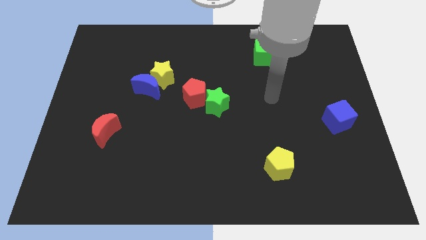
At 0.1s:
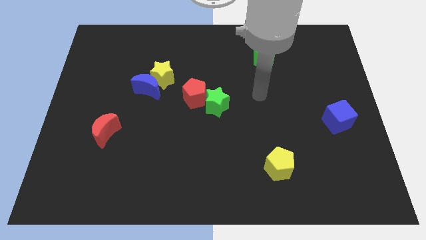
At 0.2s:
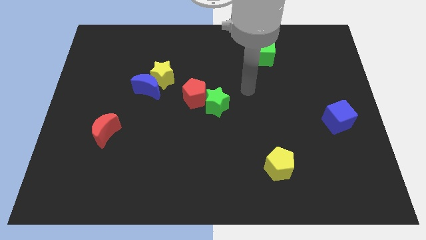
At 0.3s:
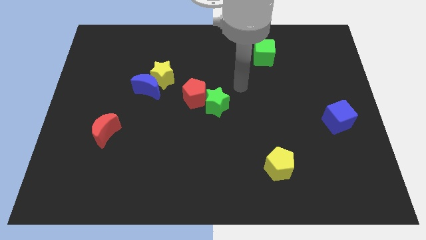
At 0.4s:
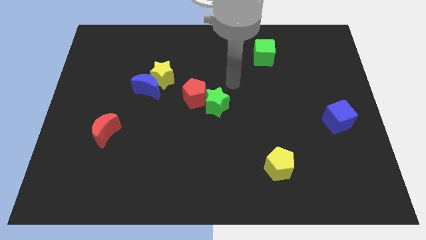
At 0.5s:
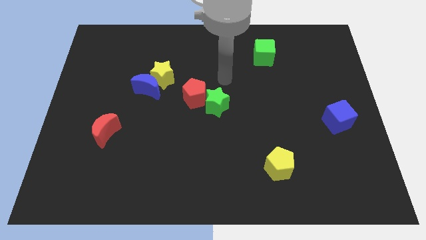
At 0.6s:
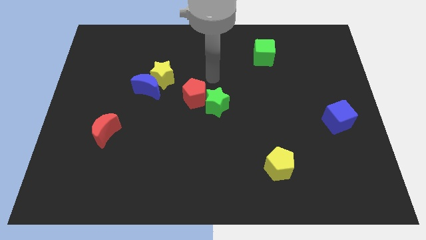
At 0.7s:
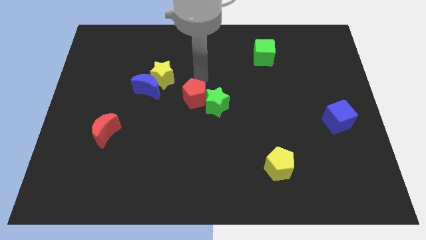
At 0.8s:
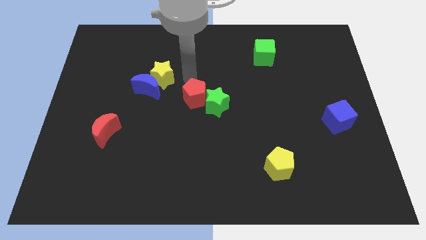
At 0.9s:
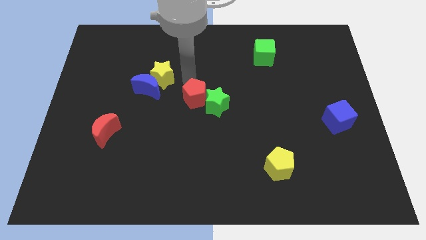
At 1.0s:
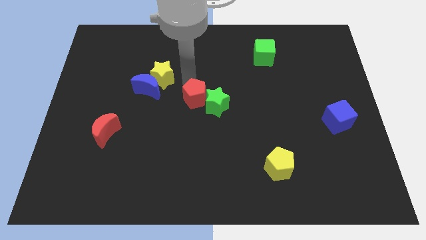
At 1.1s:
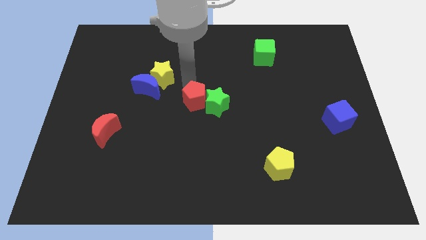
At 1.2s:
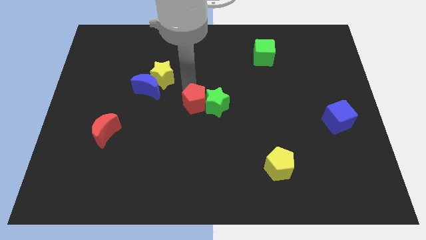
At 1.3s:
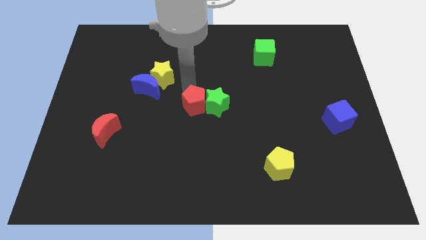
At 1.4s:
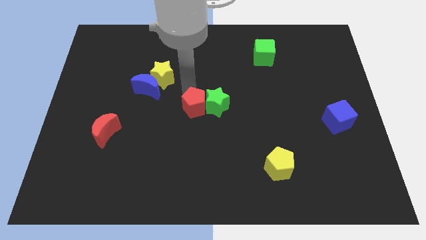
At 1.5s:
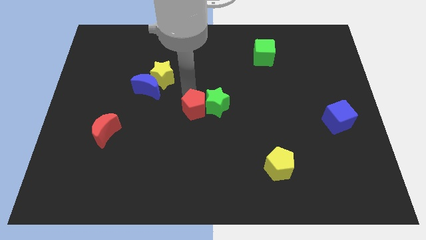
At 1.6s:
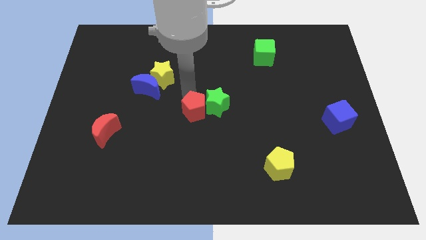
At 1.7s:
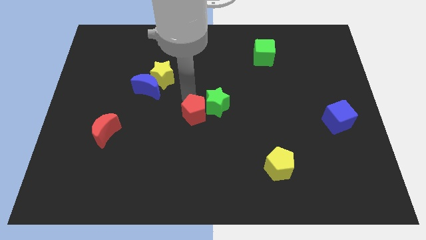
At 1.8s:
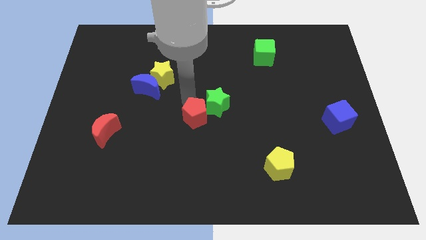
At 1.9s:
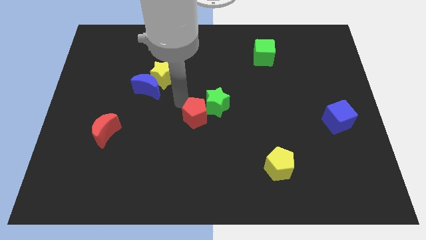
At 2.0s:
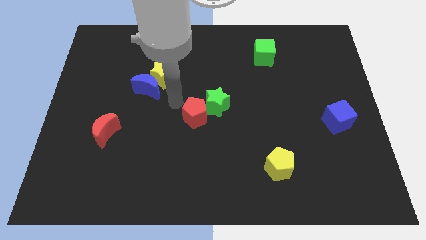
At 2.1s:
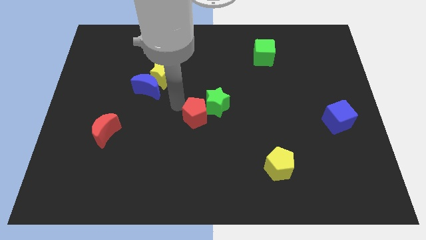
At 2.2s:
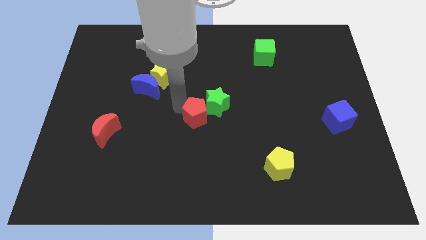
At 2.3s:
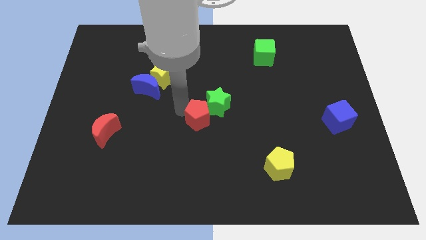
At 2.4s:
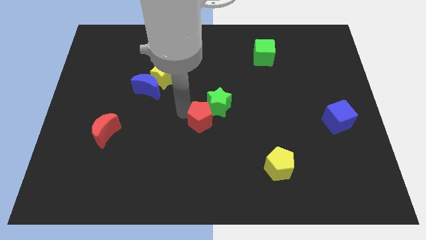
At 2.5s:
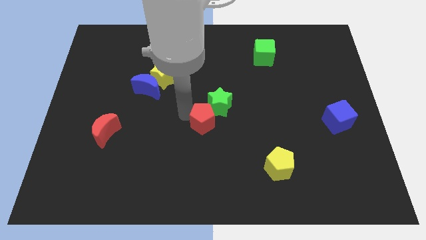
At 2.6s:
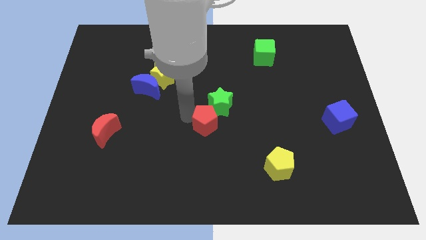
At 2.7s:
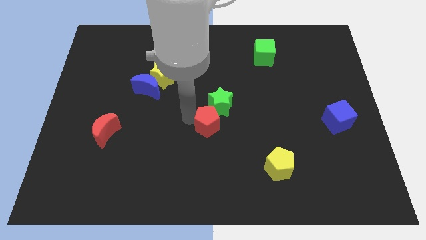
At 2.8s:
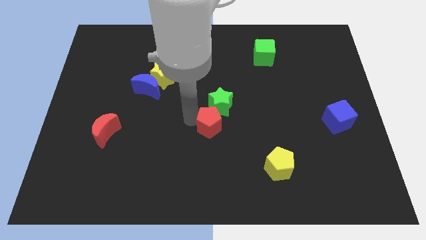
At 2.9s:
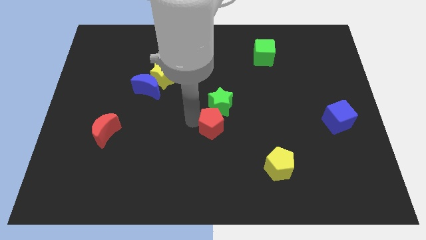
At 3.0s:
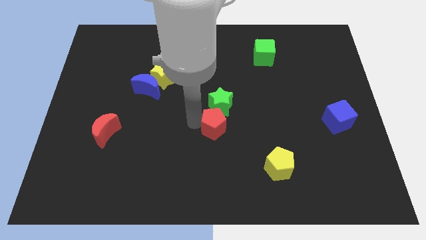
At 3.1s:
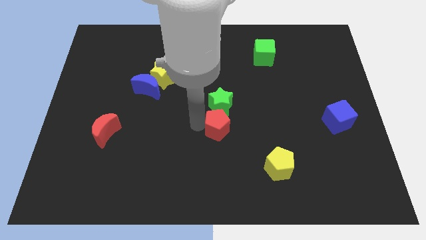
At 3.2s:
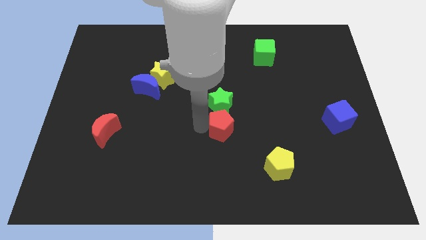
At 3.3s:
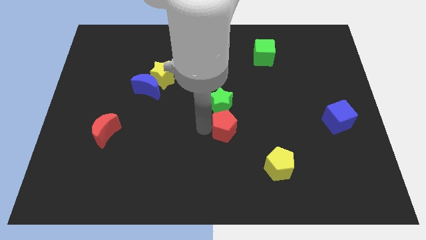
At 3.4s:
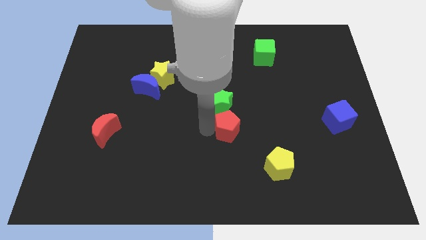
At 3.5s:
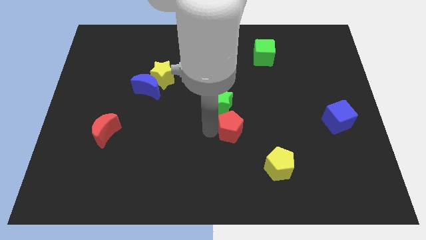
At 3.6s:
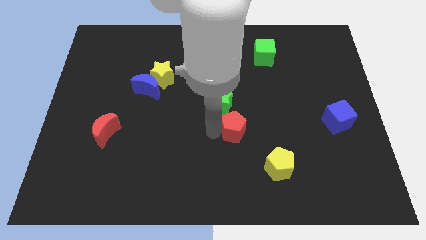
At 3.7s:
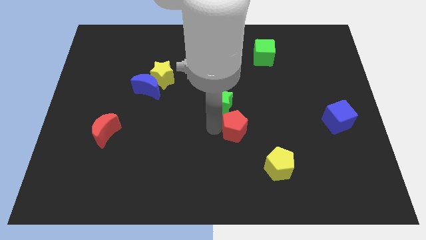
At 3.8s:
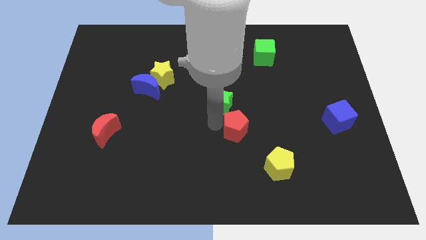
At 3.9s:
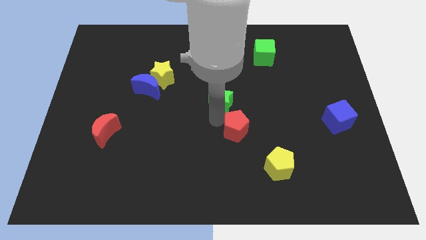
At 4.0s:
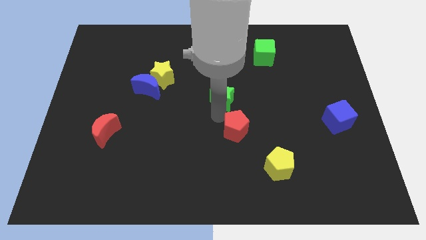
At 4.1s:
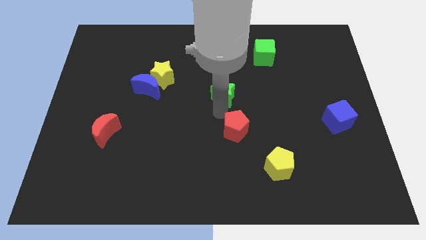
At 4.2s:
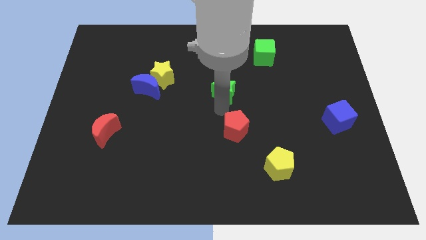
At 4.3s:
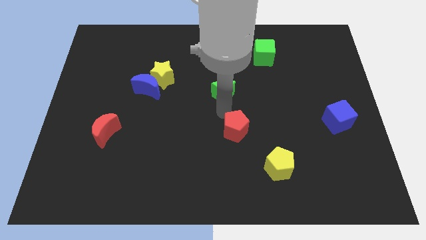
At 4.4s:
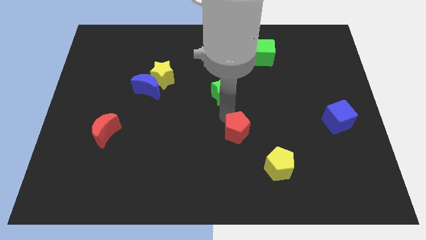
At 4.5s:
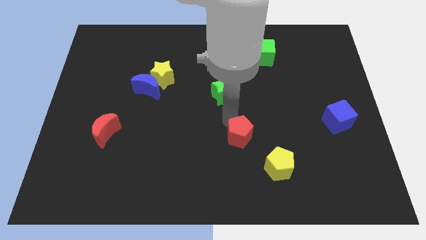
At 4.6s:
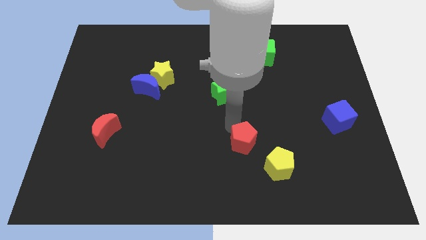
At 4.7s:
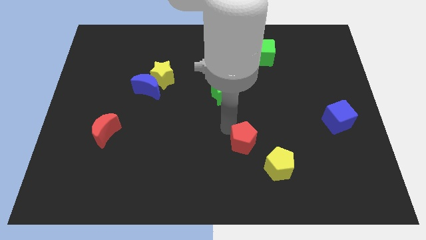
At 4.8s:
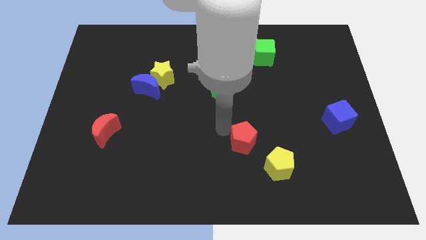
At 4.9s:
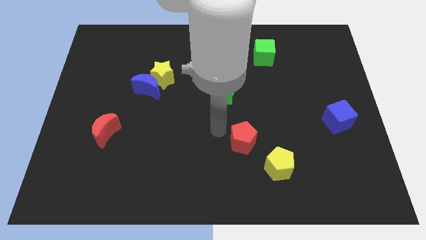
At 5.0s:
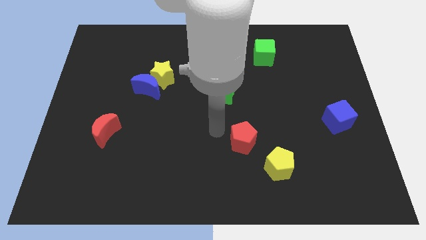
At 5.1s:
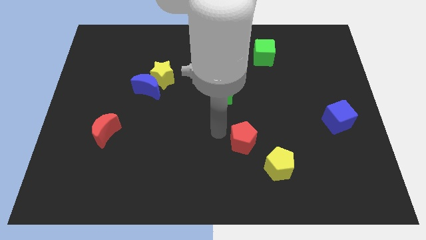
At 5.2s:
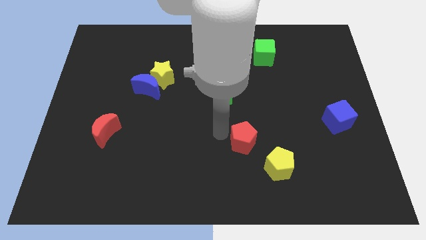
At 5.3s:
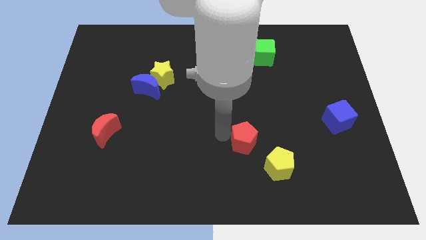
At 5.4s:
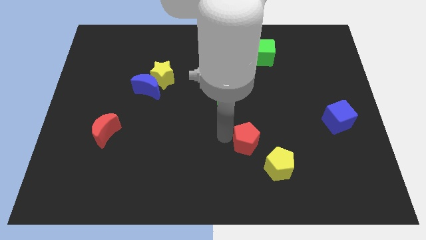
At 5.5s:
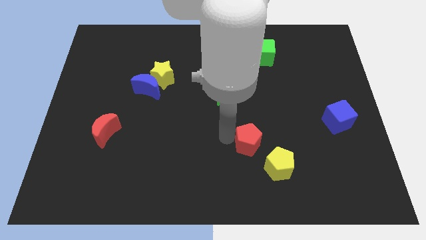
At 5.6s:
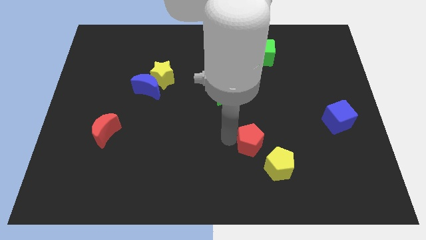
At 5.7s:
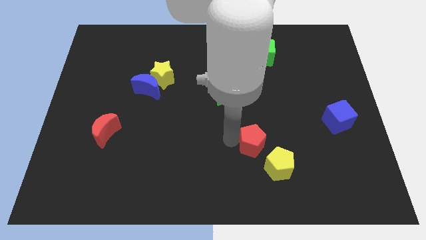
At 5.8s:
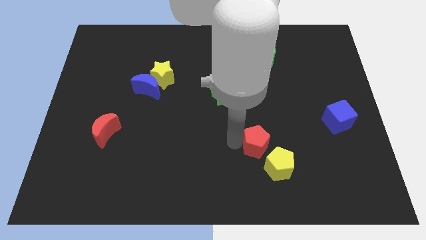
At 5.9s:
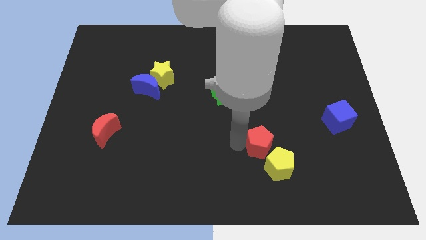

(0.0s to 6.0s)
slide the red pentagon down and then to the right

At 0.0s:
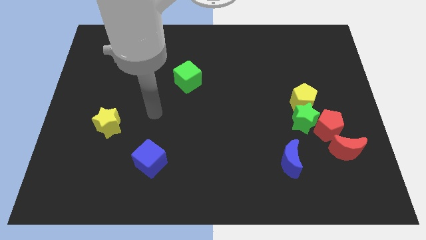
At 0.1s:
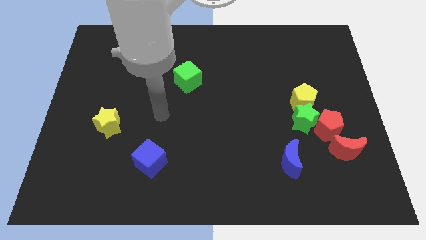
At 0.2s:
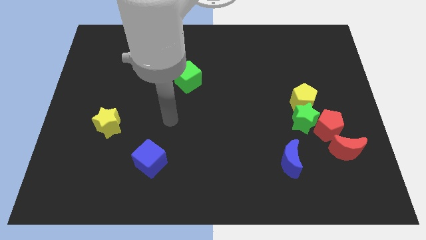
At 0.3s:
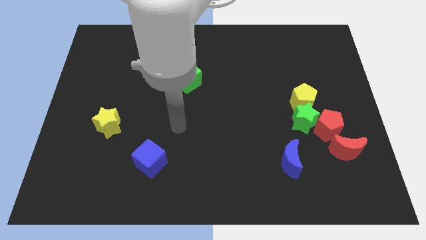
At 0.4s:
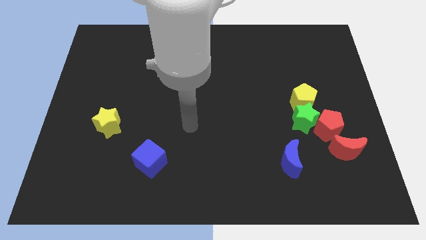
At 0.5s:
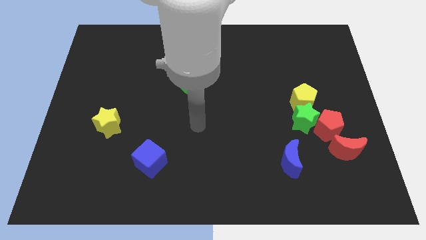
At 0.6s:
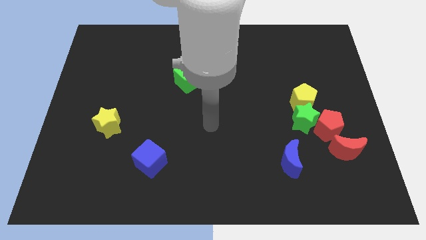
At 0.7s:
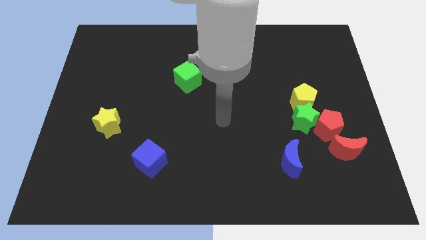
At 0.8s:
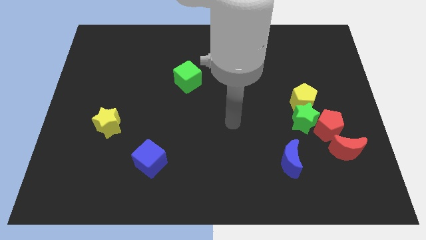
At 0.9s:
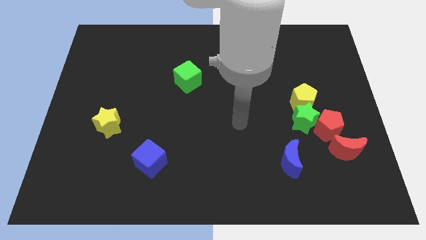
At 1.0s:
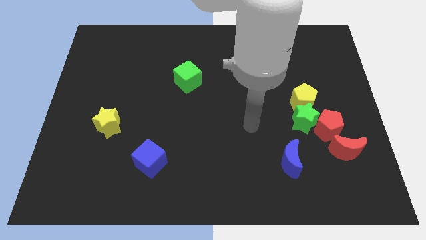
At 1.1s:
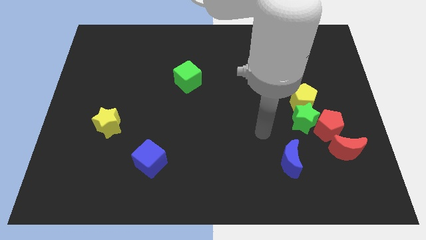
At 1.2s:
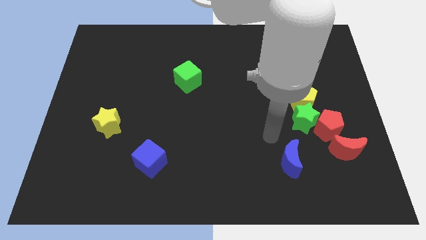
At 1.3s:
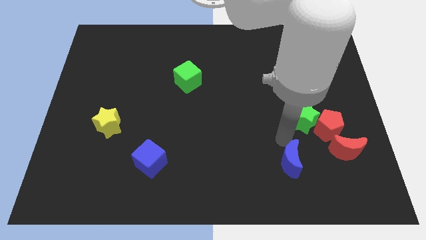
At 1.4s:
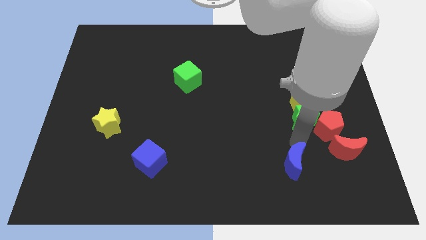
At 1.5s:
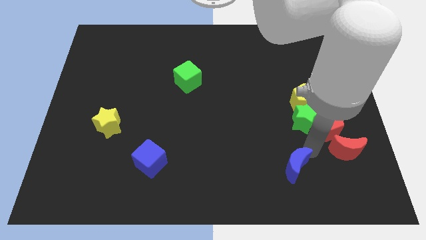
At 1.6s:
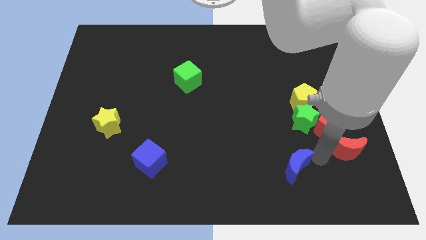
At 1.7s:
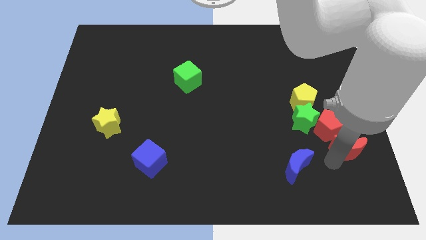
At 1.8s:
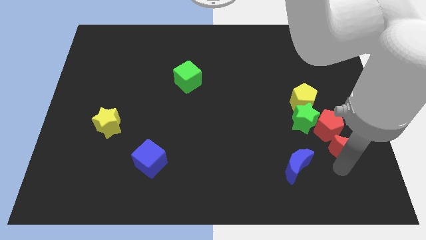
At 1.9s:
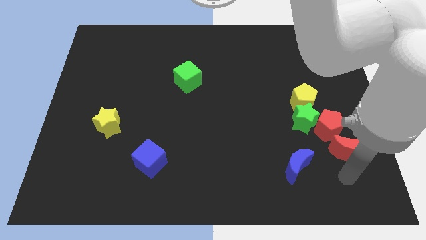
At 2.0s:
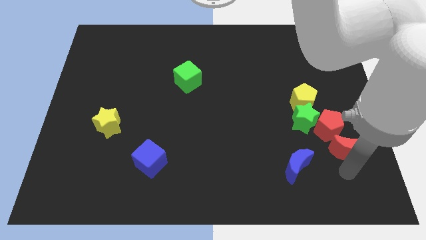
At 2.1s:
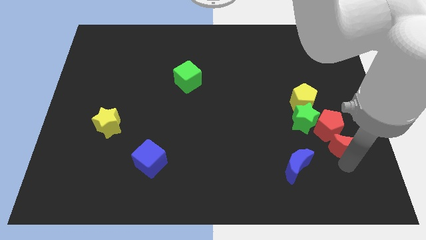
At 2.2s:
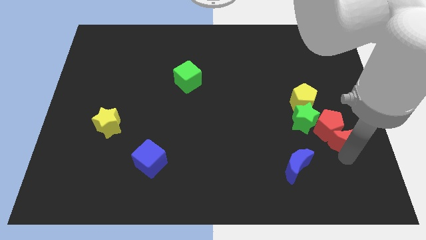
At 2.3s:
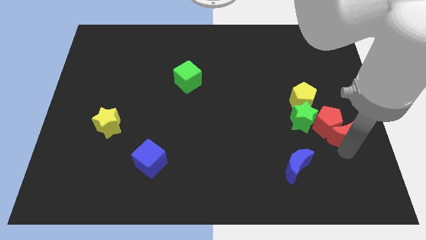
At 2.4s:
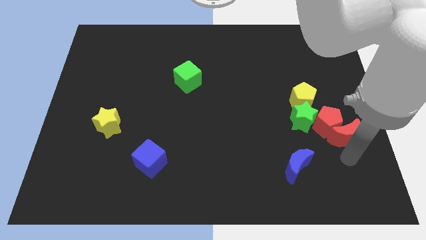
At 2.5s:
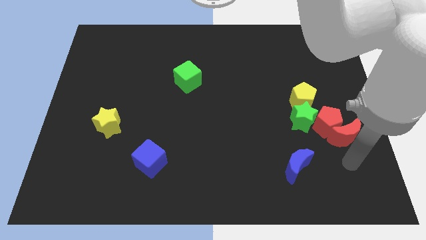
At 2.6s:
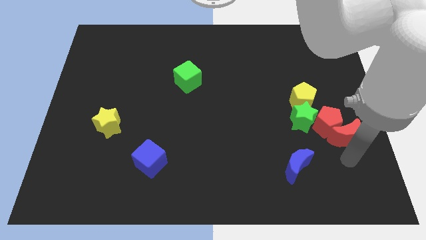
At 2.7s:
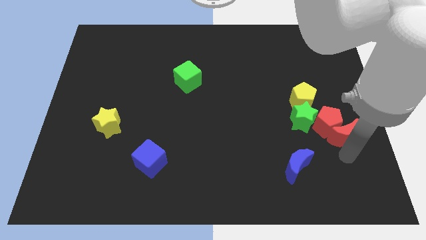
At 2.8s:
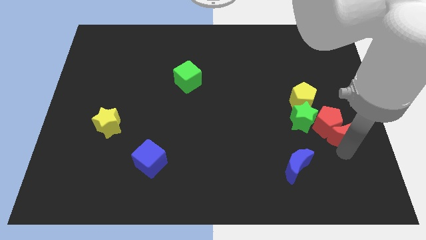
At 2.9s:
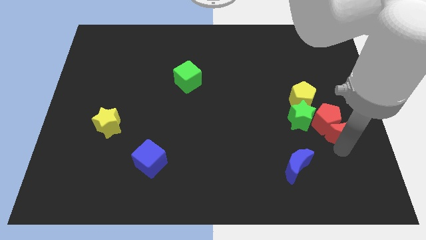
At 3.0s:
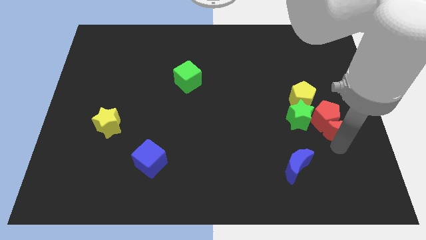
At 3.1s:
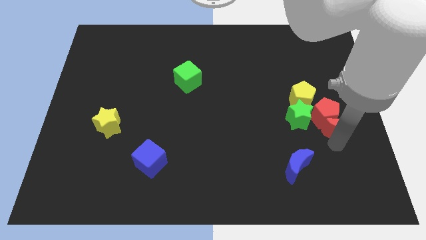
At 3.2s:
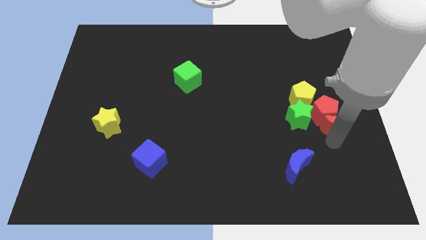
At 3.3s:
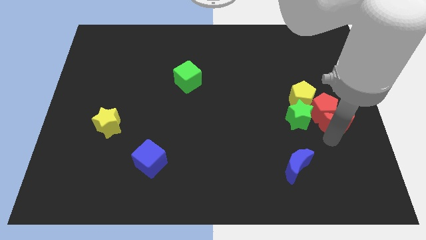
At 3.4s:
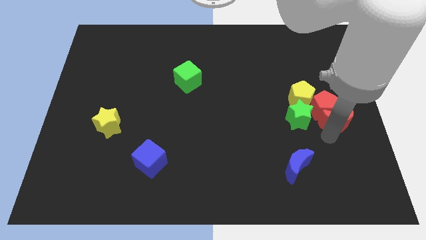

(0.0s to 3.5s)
push the red moon a little upwards
